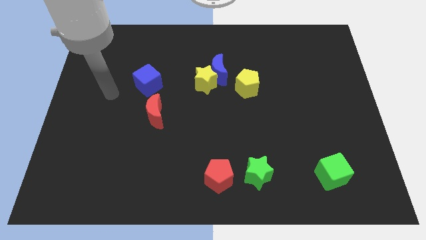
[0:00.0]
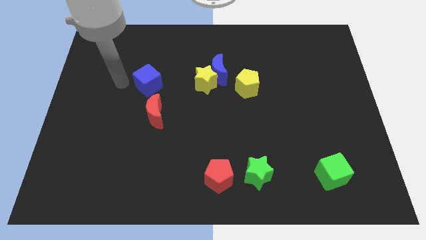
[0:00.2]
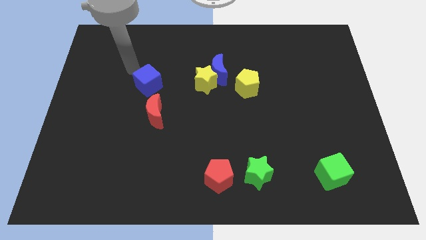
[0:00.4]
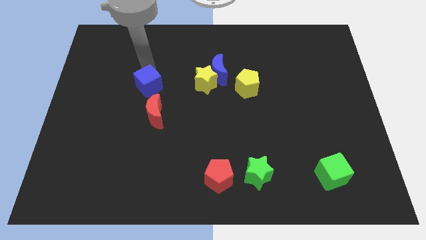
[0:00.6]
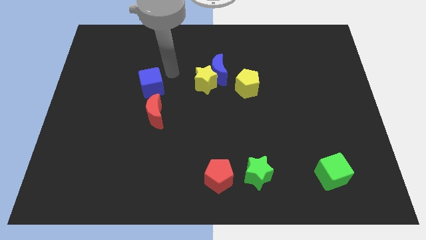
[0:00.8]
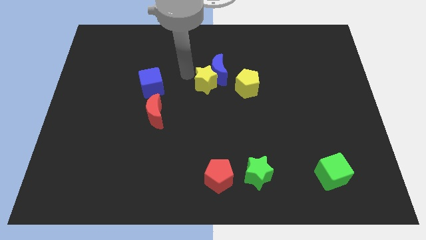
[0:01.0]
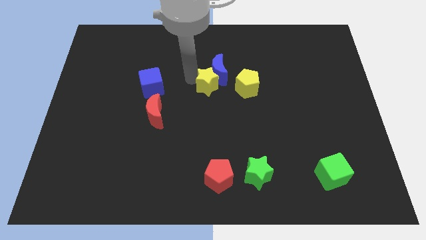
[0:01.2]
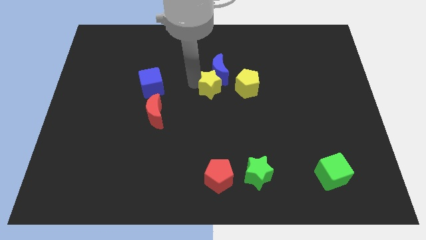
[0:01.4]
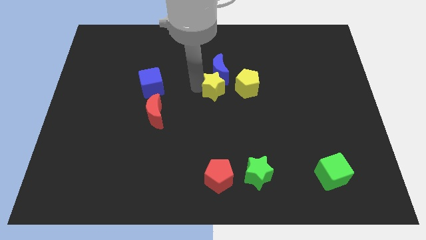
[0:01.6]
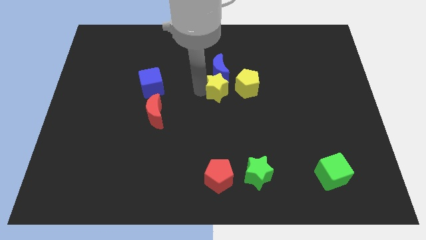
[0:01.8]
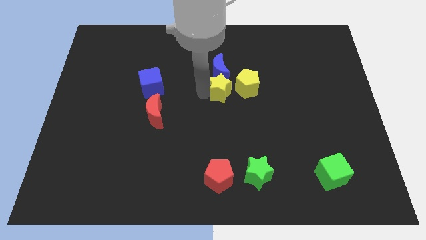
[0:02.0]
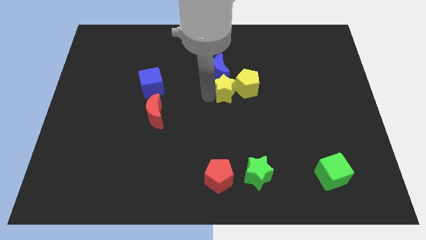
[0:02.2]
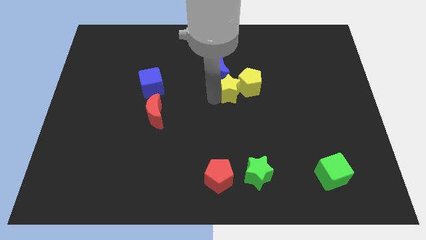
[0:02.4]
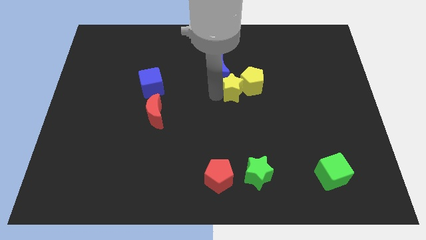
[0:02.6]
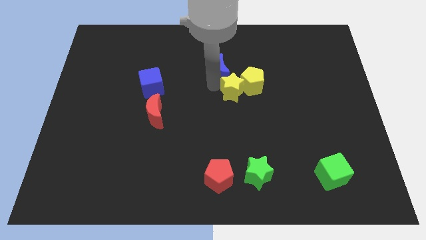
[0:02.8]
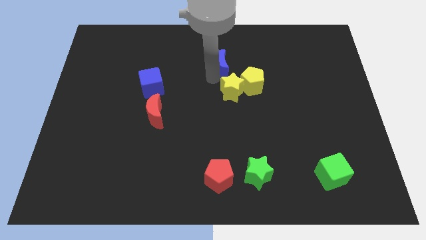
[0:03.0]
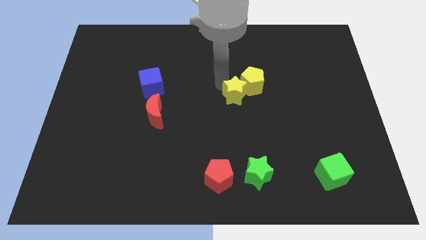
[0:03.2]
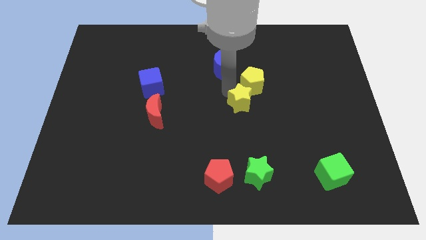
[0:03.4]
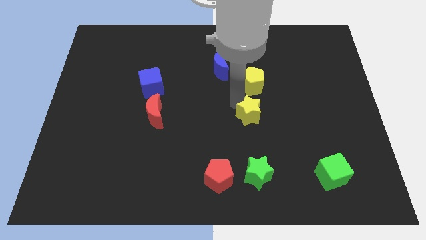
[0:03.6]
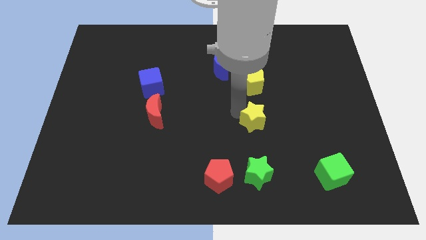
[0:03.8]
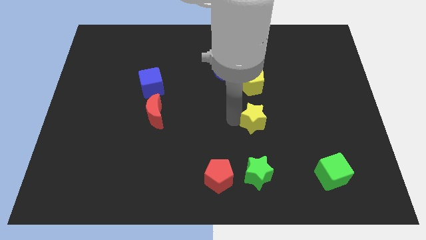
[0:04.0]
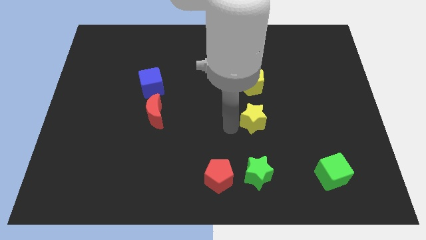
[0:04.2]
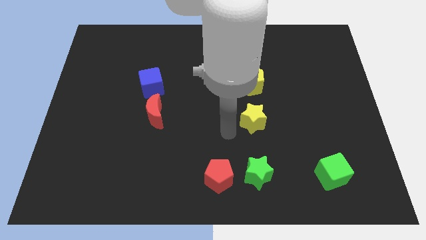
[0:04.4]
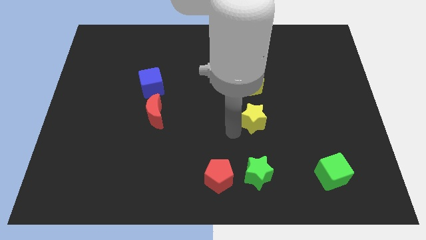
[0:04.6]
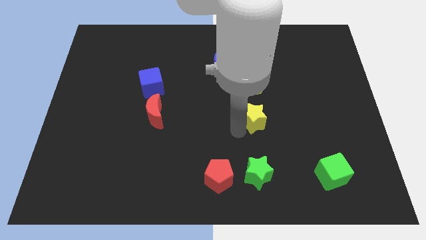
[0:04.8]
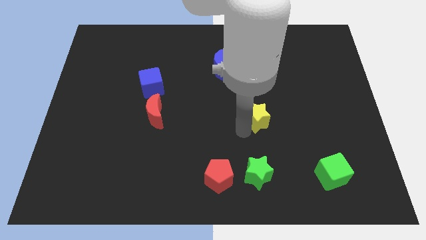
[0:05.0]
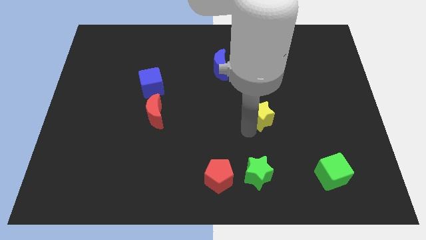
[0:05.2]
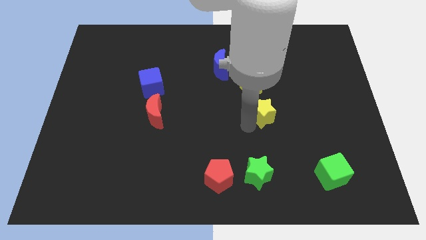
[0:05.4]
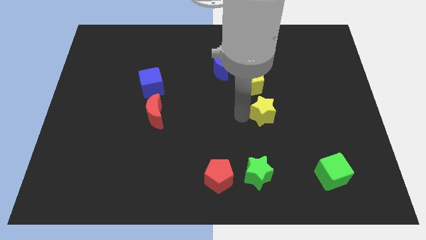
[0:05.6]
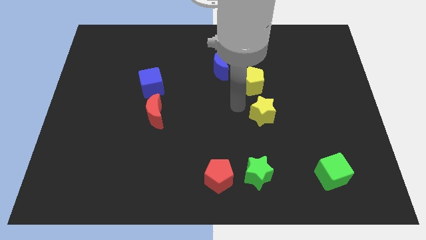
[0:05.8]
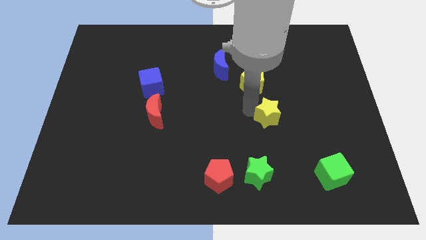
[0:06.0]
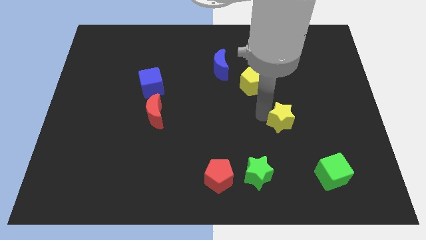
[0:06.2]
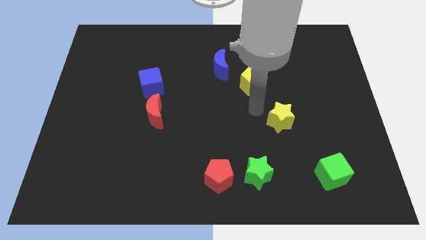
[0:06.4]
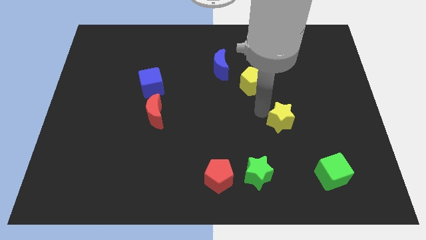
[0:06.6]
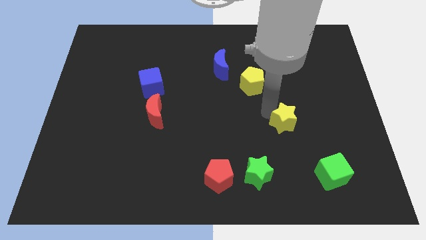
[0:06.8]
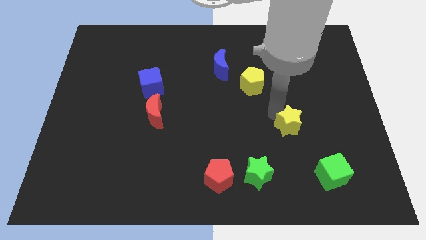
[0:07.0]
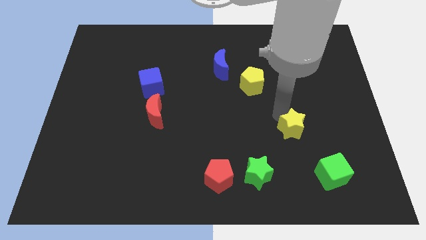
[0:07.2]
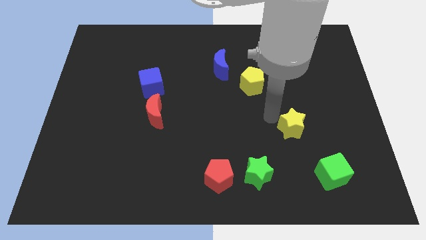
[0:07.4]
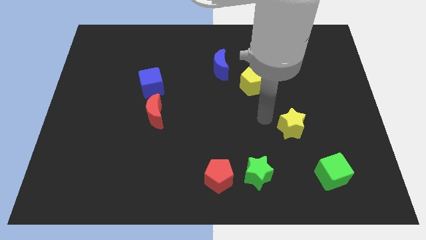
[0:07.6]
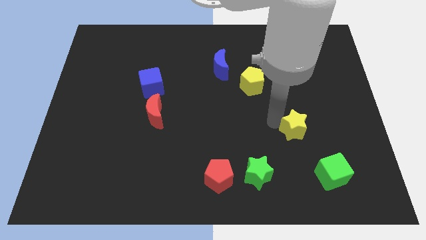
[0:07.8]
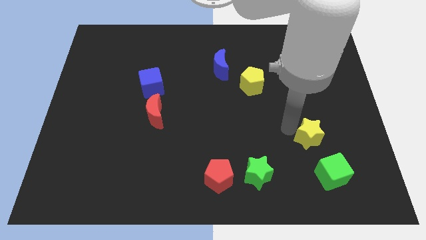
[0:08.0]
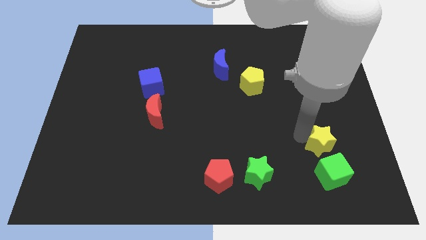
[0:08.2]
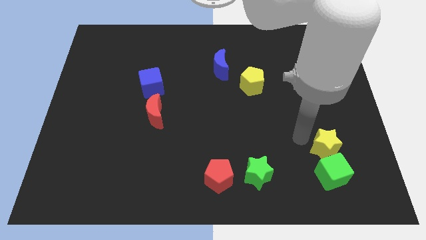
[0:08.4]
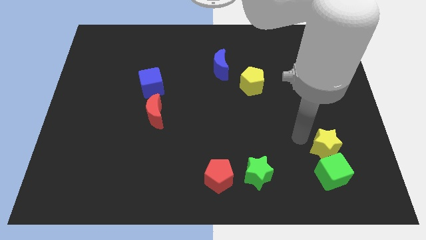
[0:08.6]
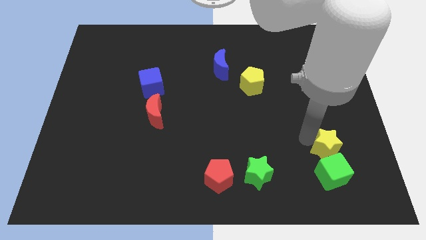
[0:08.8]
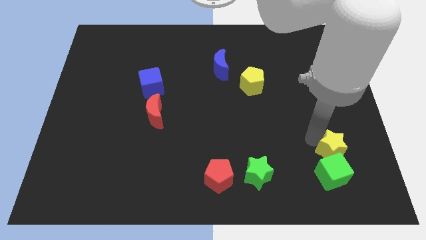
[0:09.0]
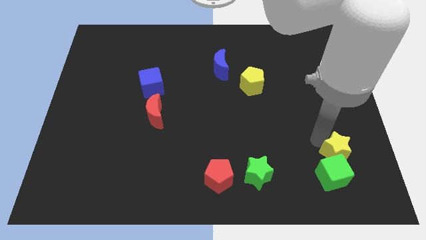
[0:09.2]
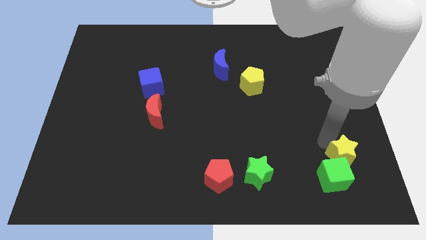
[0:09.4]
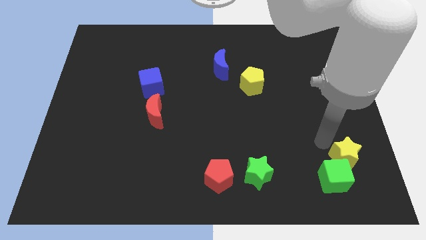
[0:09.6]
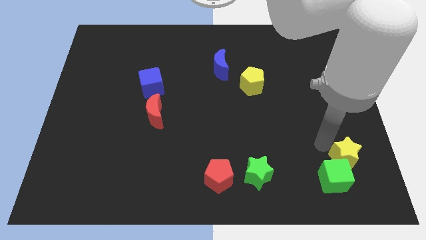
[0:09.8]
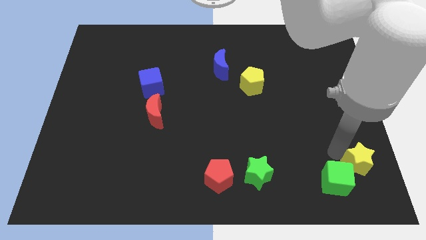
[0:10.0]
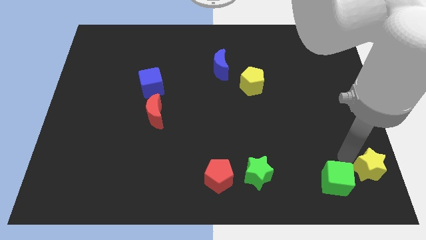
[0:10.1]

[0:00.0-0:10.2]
push the yellow star to the bottom right

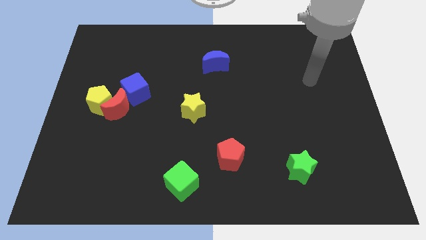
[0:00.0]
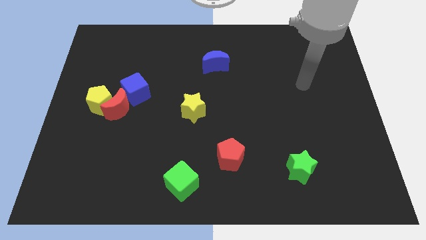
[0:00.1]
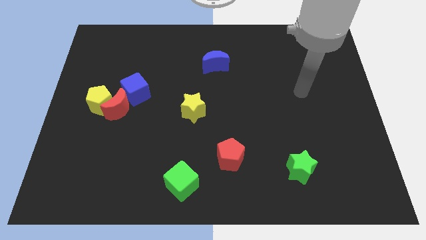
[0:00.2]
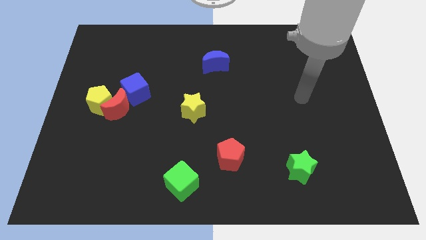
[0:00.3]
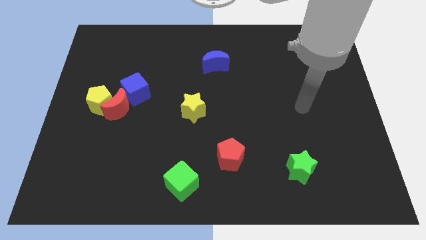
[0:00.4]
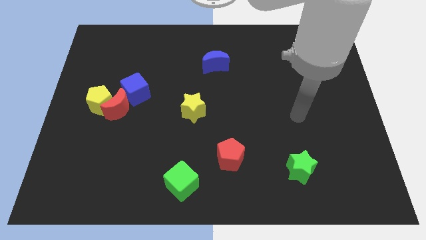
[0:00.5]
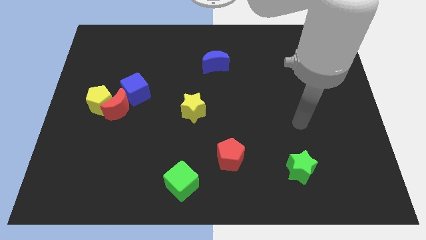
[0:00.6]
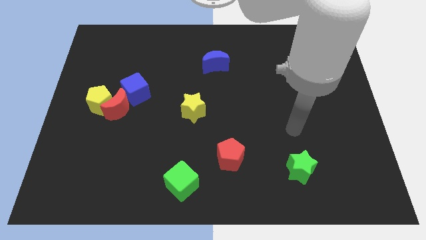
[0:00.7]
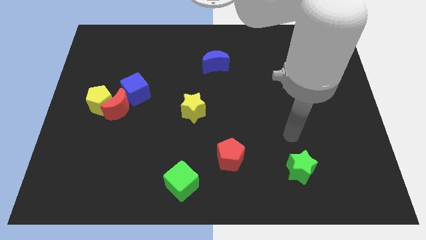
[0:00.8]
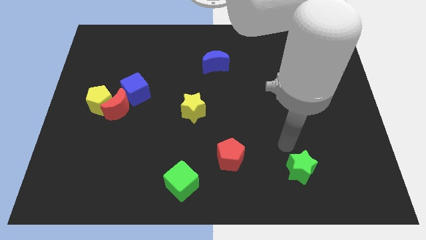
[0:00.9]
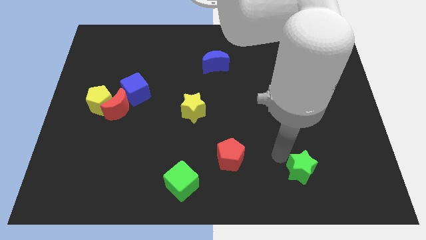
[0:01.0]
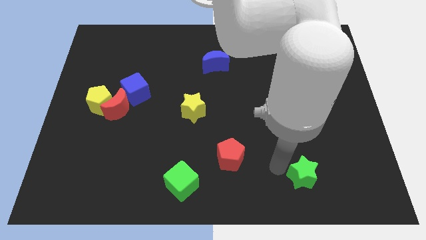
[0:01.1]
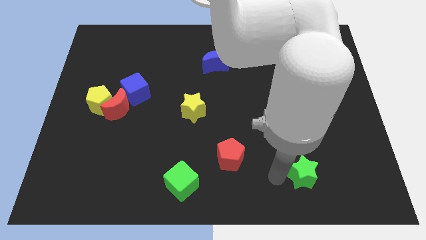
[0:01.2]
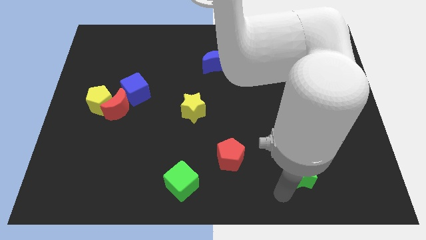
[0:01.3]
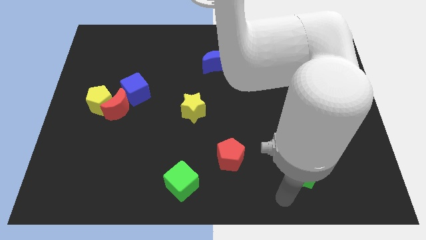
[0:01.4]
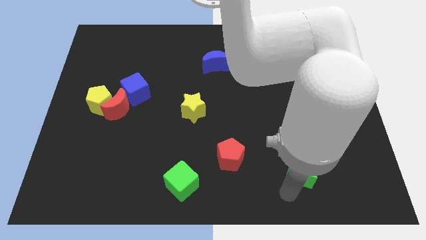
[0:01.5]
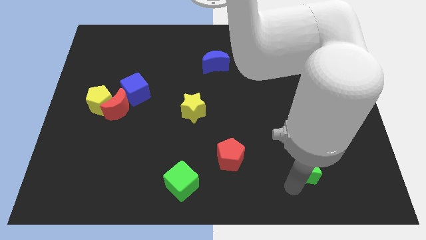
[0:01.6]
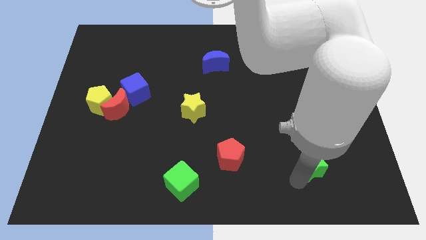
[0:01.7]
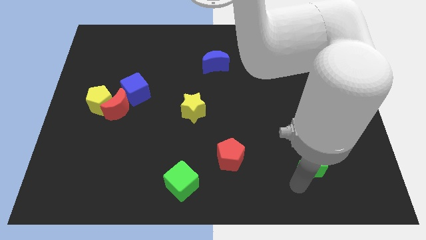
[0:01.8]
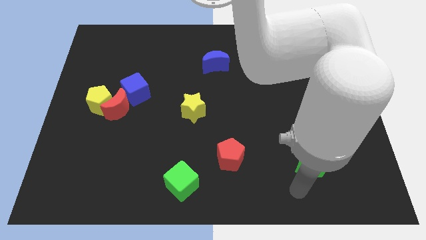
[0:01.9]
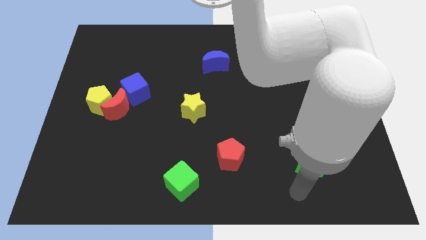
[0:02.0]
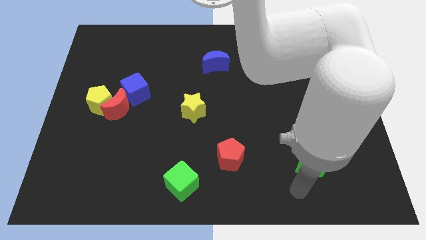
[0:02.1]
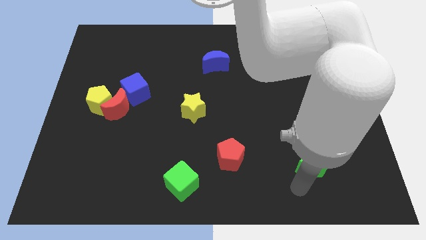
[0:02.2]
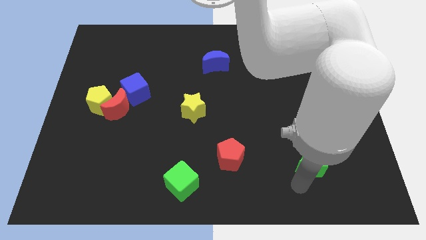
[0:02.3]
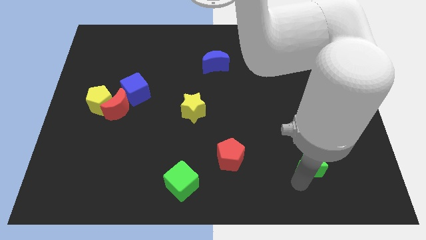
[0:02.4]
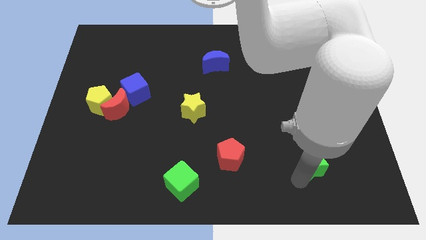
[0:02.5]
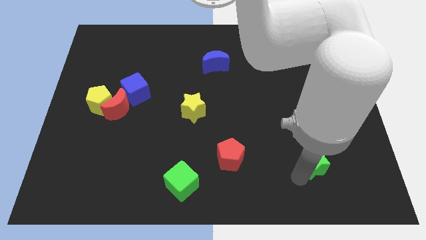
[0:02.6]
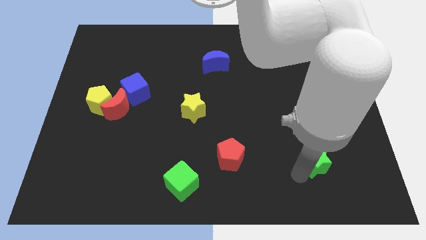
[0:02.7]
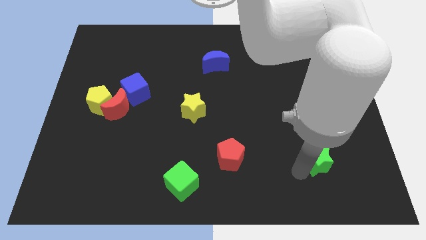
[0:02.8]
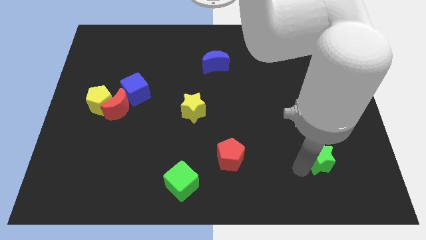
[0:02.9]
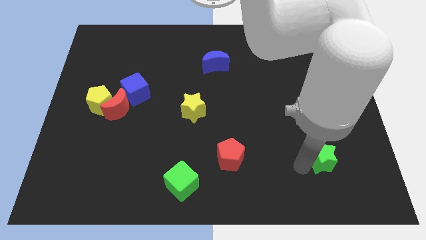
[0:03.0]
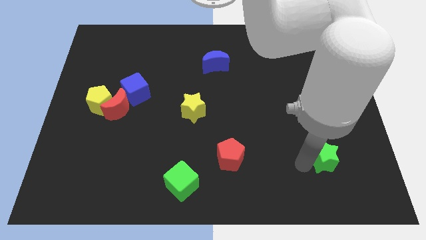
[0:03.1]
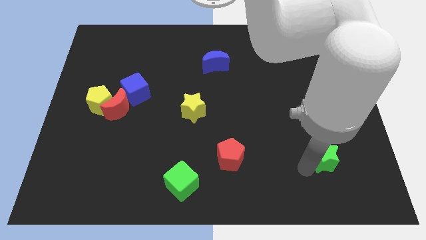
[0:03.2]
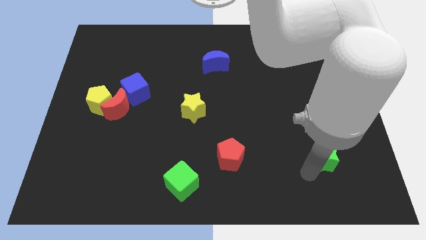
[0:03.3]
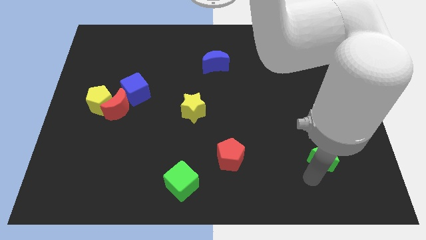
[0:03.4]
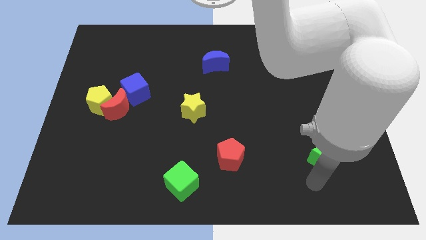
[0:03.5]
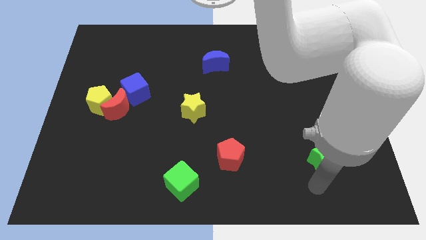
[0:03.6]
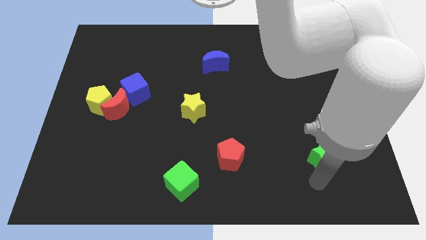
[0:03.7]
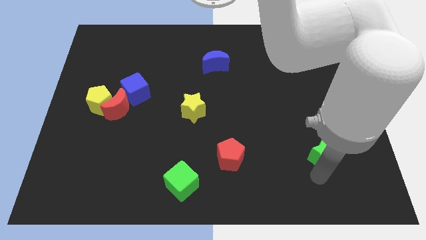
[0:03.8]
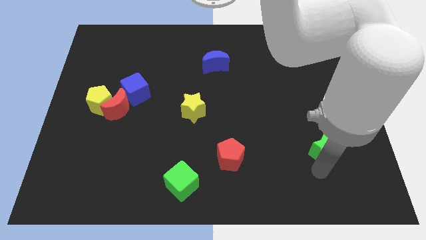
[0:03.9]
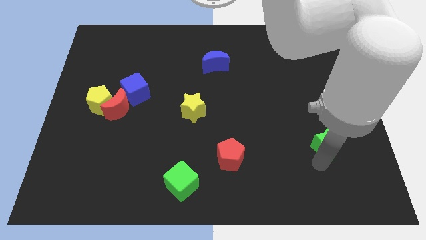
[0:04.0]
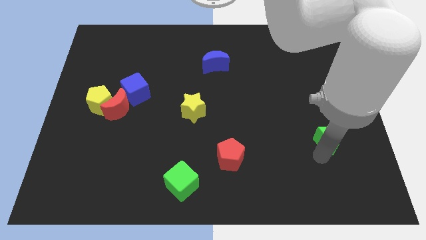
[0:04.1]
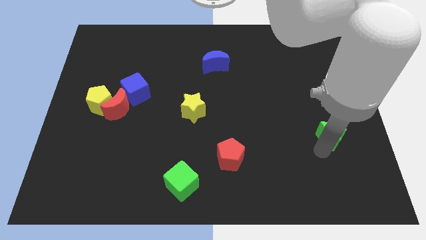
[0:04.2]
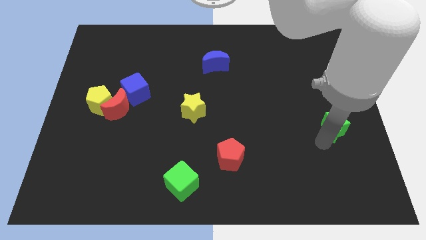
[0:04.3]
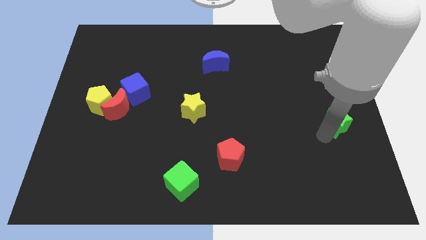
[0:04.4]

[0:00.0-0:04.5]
slide the green star to the center right
